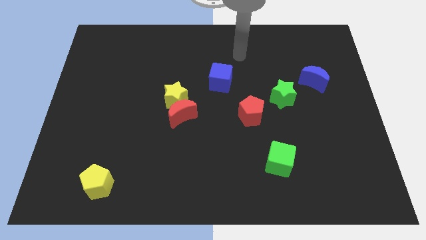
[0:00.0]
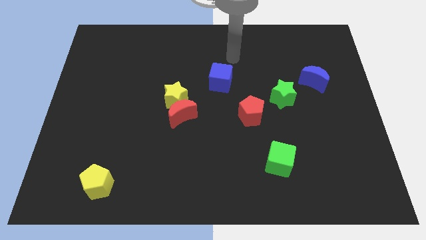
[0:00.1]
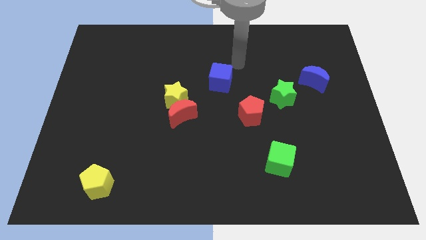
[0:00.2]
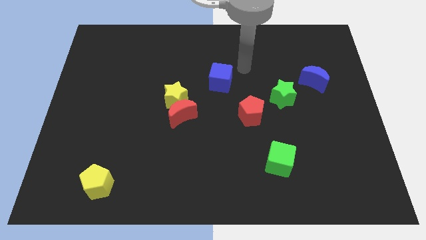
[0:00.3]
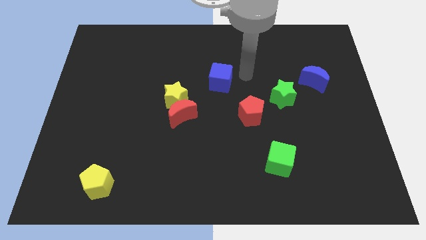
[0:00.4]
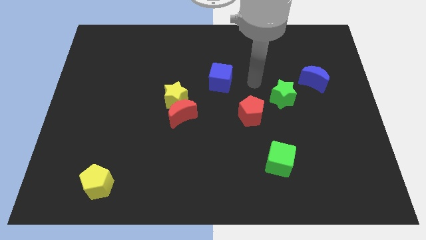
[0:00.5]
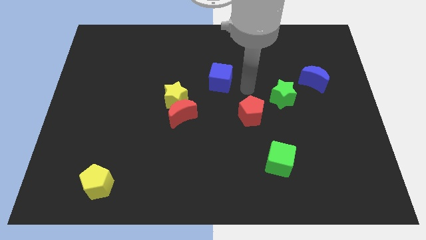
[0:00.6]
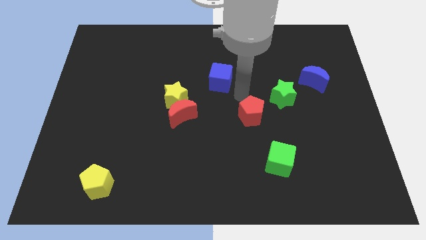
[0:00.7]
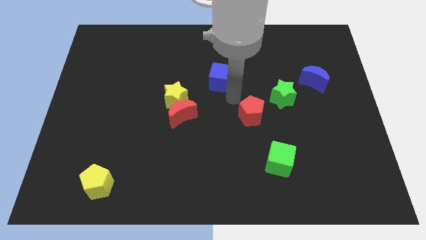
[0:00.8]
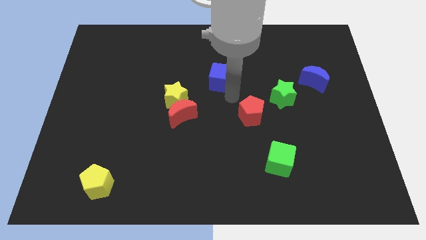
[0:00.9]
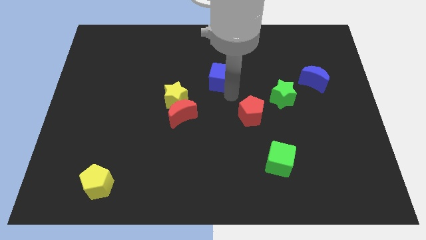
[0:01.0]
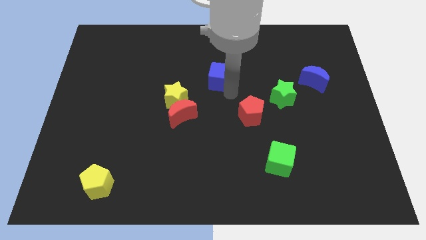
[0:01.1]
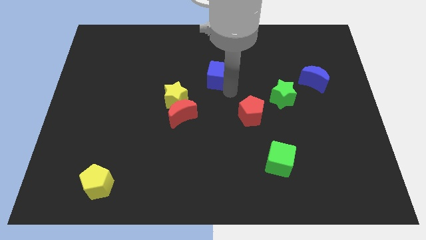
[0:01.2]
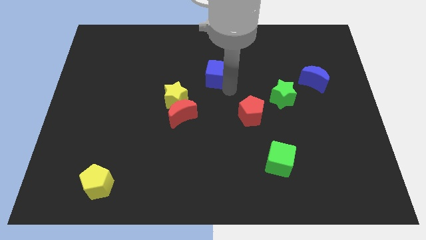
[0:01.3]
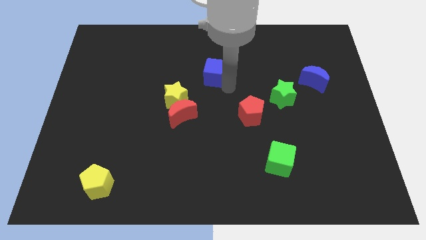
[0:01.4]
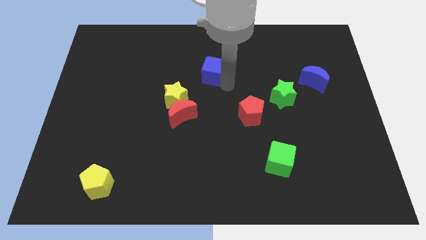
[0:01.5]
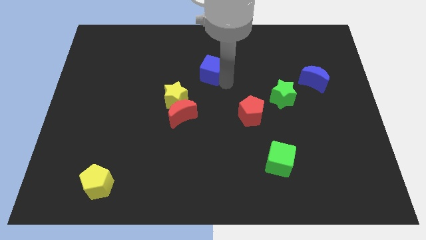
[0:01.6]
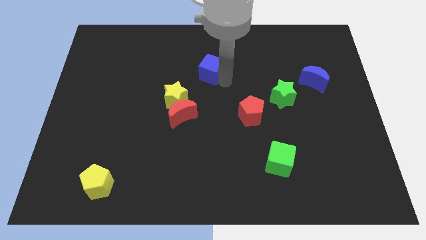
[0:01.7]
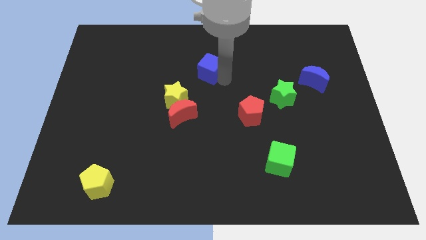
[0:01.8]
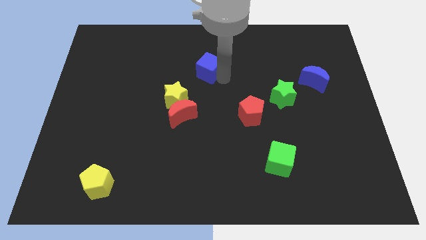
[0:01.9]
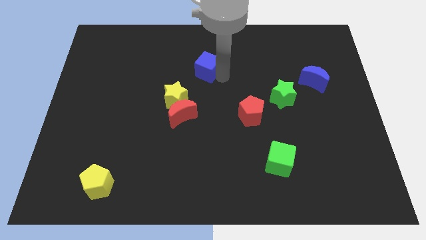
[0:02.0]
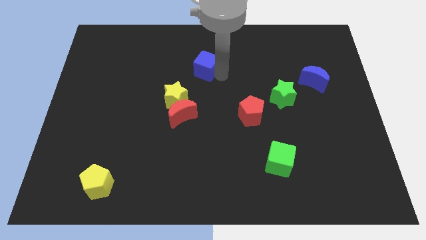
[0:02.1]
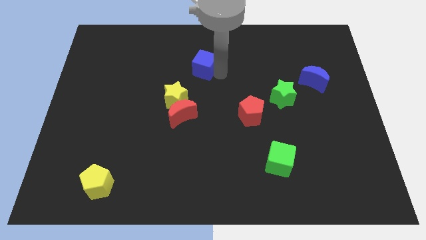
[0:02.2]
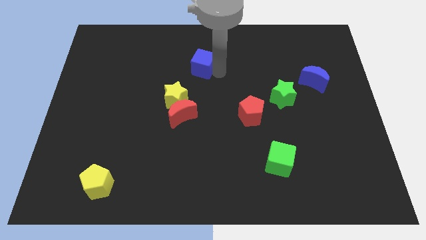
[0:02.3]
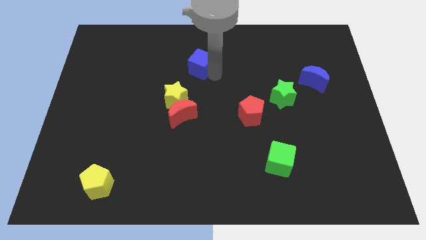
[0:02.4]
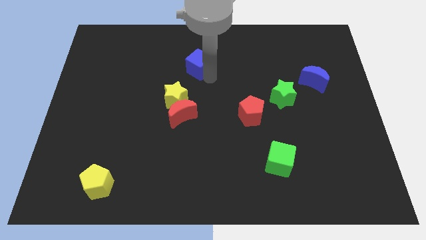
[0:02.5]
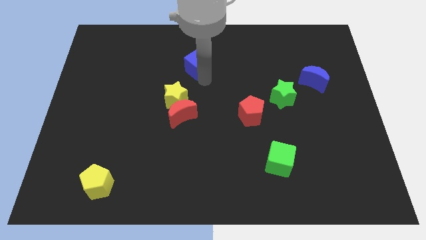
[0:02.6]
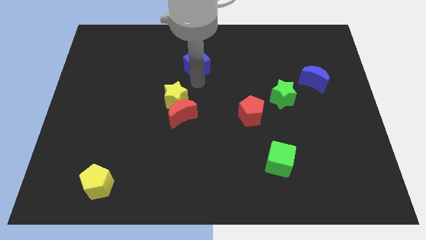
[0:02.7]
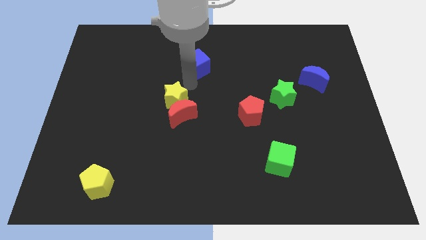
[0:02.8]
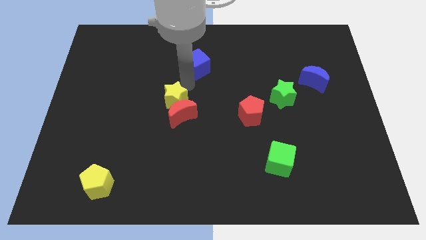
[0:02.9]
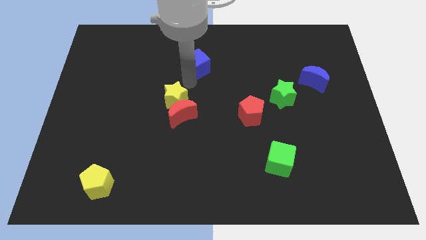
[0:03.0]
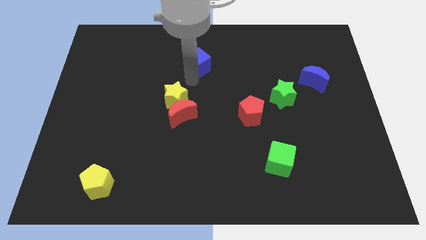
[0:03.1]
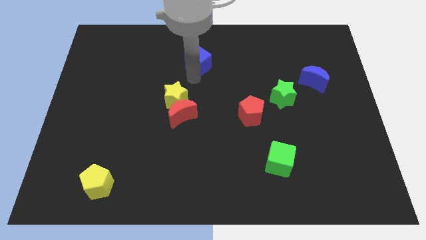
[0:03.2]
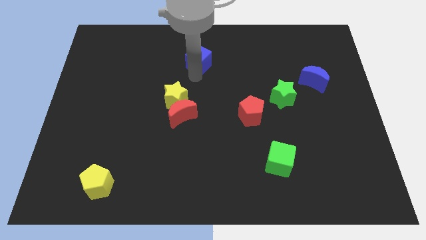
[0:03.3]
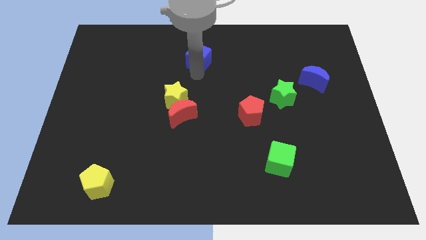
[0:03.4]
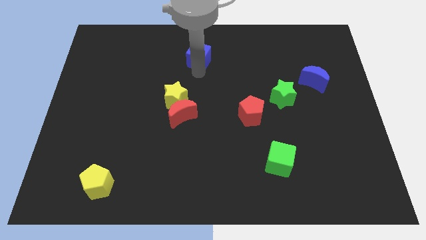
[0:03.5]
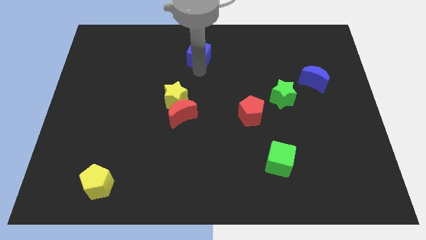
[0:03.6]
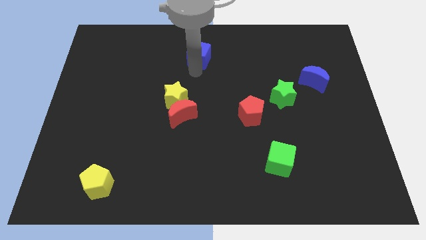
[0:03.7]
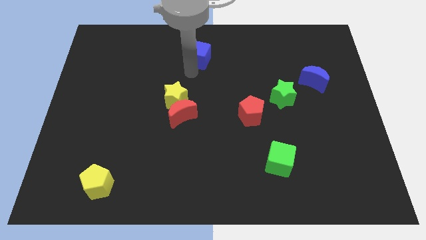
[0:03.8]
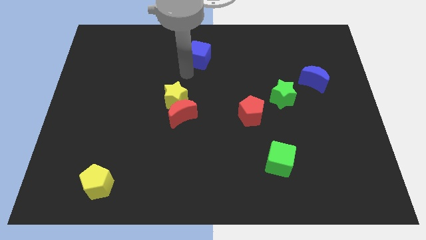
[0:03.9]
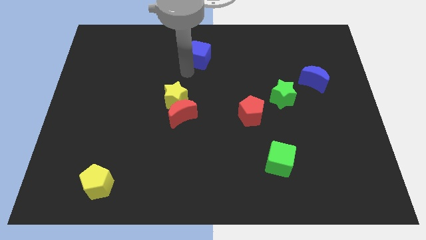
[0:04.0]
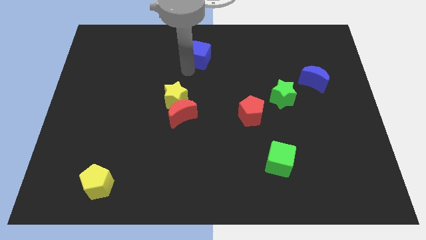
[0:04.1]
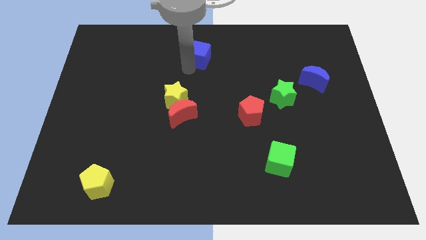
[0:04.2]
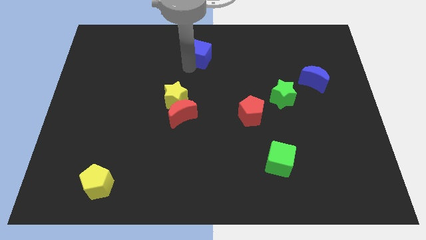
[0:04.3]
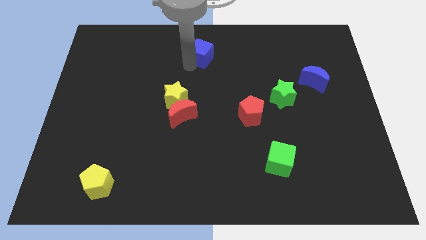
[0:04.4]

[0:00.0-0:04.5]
slide the blue cube to the top

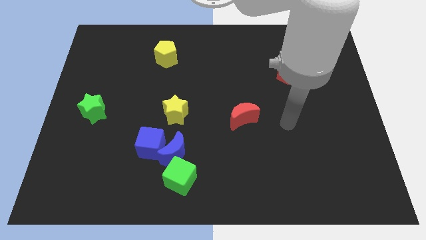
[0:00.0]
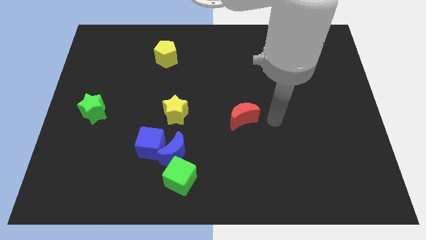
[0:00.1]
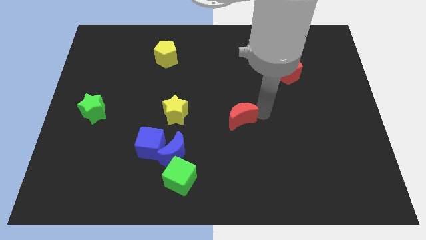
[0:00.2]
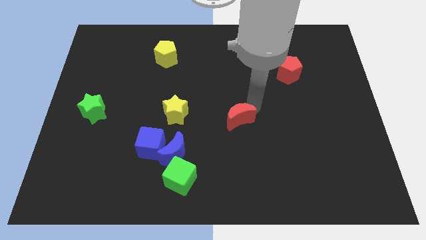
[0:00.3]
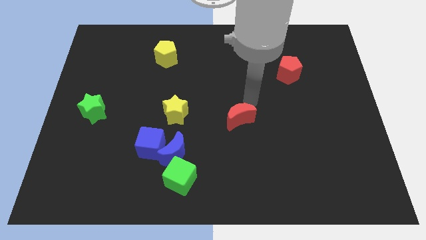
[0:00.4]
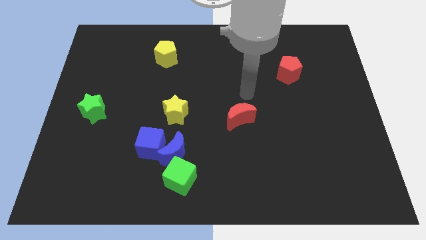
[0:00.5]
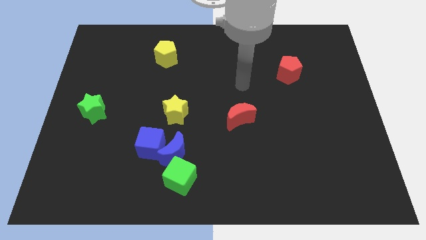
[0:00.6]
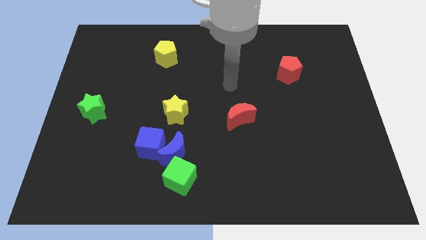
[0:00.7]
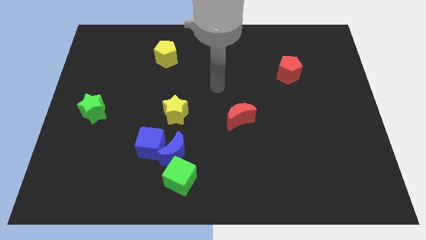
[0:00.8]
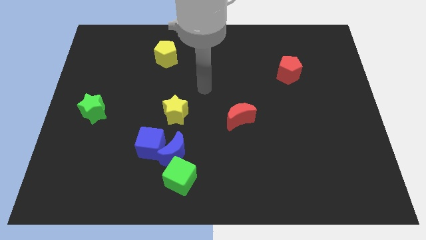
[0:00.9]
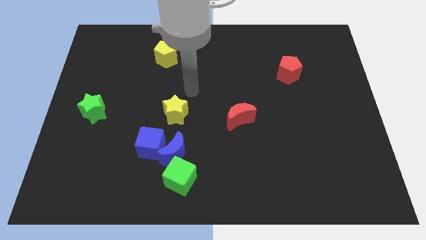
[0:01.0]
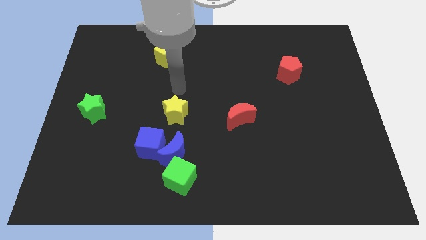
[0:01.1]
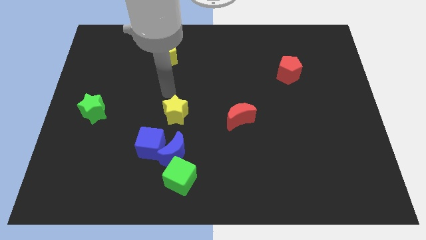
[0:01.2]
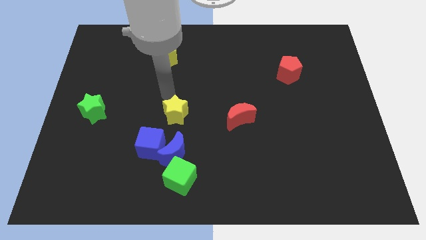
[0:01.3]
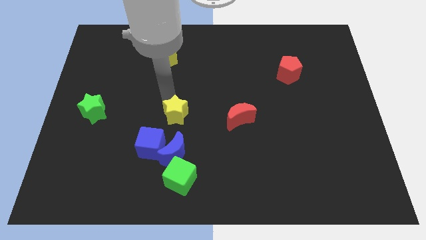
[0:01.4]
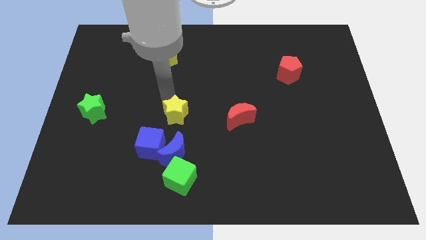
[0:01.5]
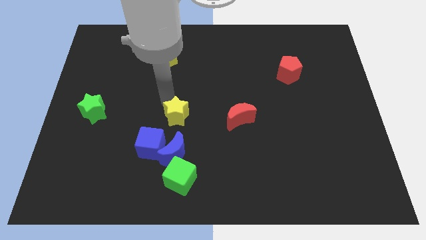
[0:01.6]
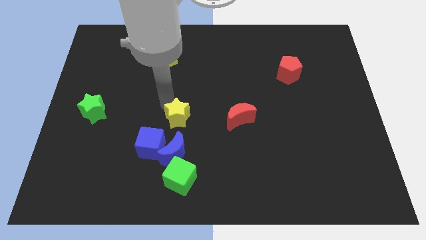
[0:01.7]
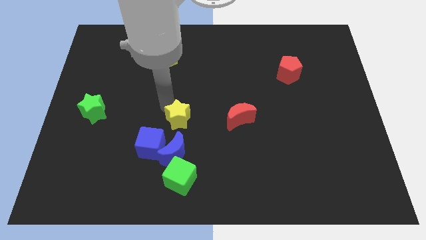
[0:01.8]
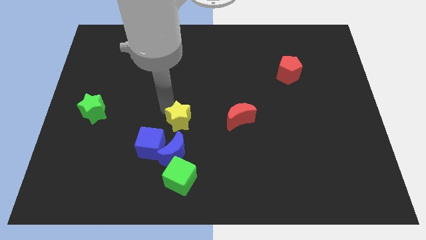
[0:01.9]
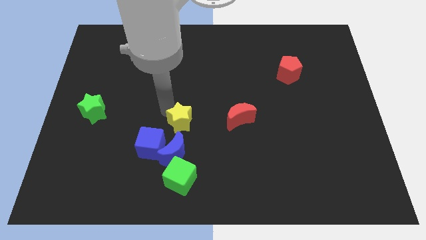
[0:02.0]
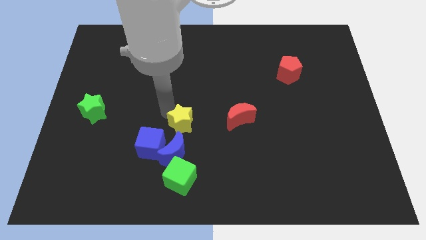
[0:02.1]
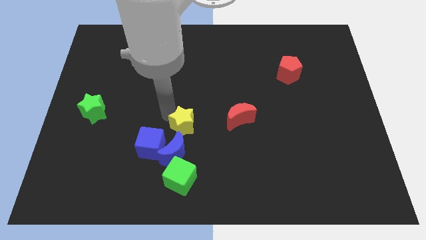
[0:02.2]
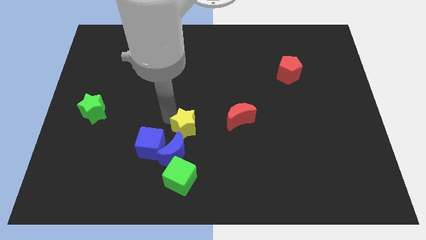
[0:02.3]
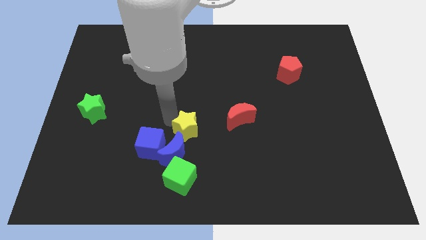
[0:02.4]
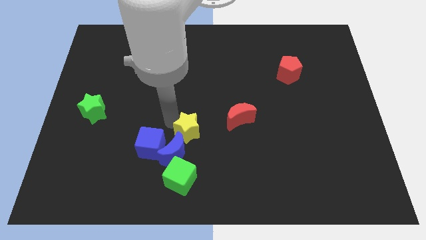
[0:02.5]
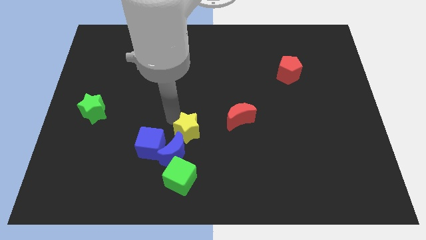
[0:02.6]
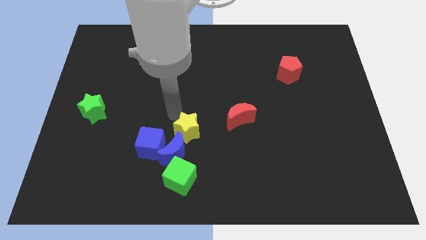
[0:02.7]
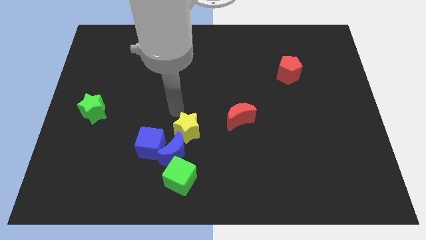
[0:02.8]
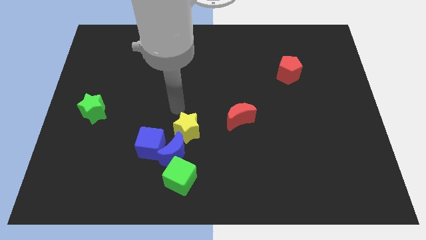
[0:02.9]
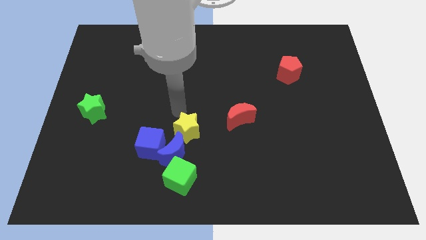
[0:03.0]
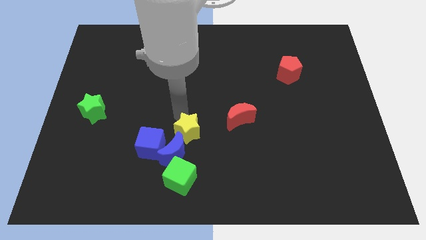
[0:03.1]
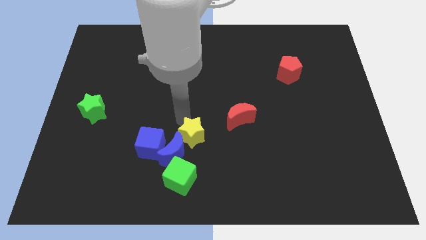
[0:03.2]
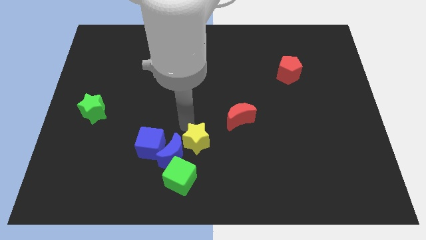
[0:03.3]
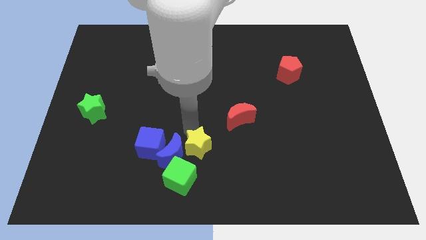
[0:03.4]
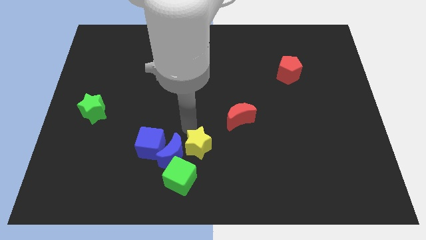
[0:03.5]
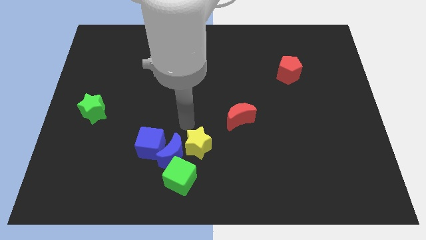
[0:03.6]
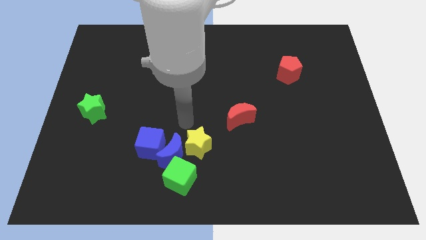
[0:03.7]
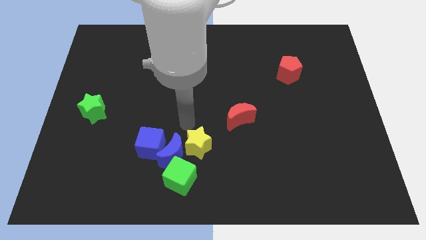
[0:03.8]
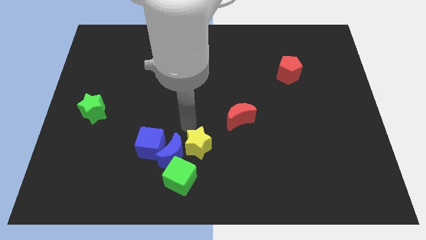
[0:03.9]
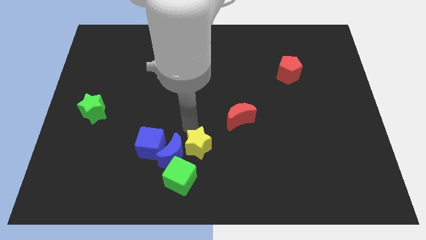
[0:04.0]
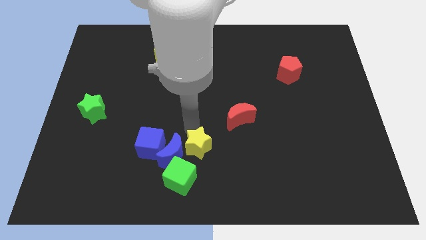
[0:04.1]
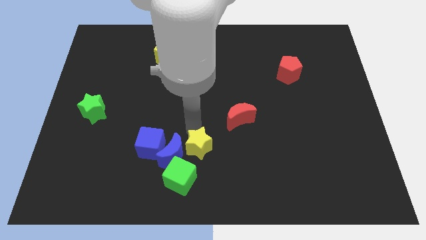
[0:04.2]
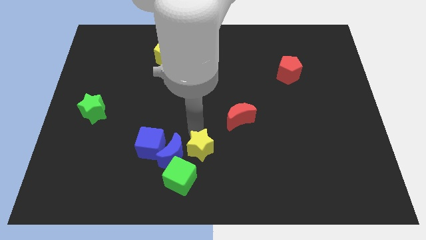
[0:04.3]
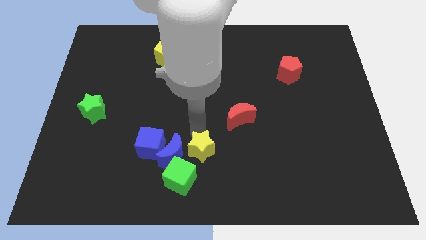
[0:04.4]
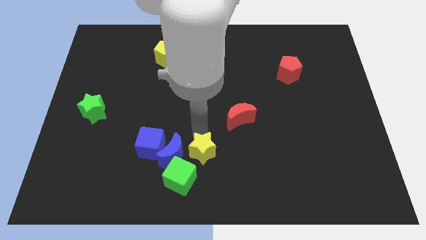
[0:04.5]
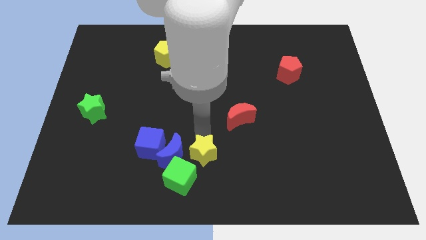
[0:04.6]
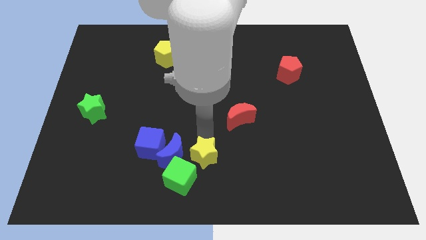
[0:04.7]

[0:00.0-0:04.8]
push the yellow star to the bottom
